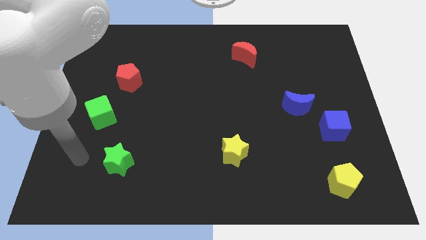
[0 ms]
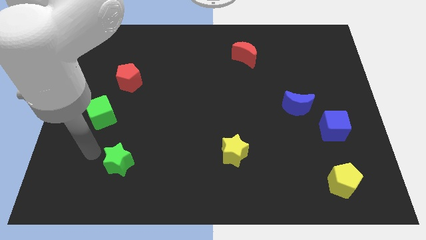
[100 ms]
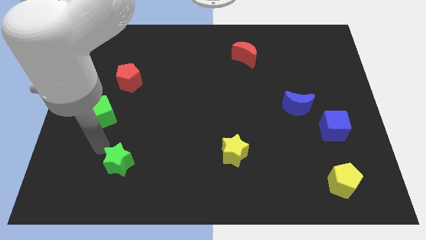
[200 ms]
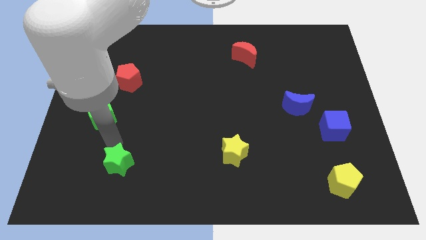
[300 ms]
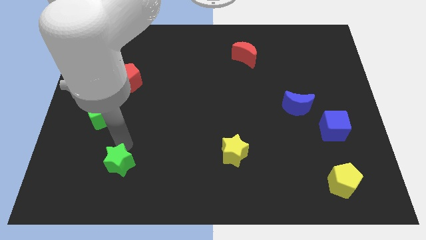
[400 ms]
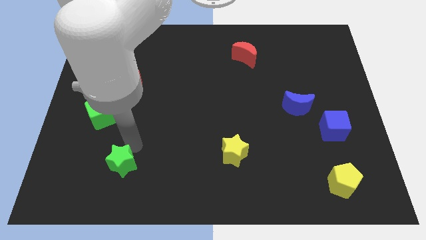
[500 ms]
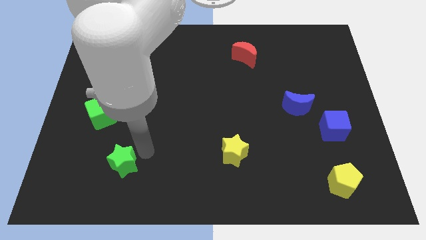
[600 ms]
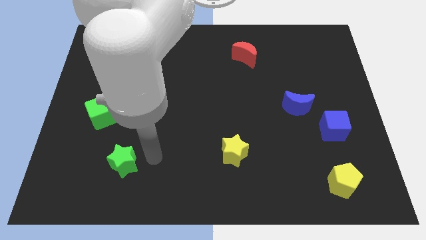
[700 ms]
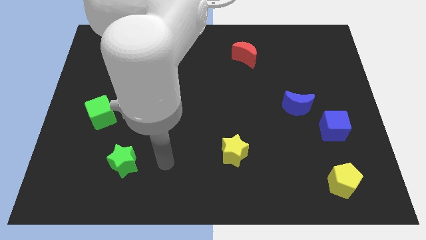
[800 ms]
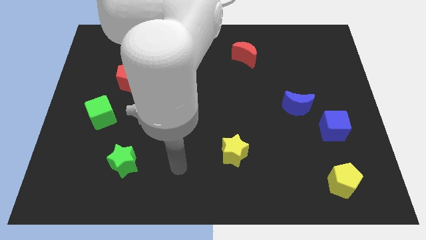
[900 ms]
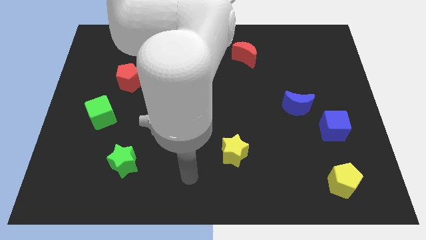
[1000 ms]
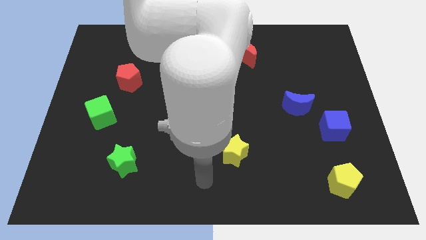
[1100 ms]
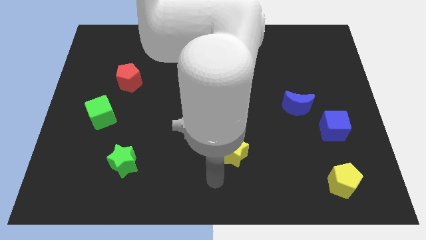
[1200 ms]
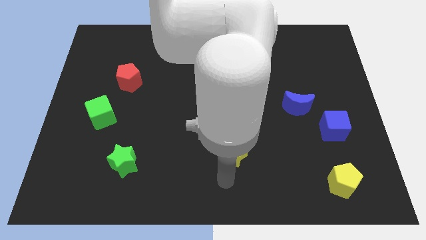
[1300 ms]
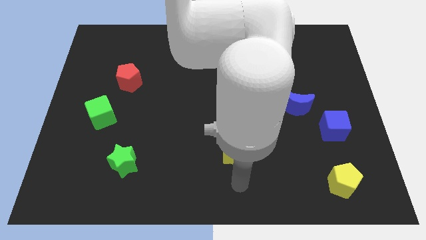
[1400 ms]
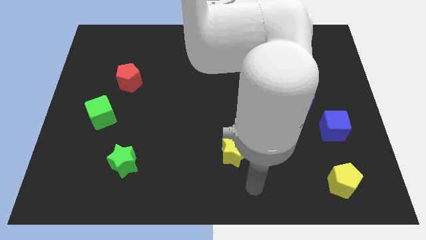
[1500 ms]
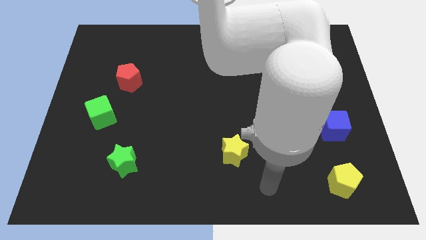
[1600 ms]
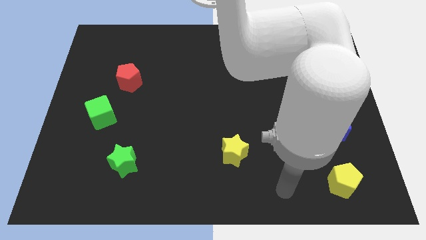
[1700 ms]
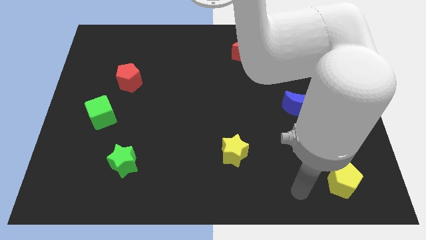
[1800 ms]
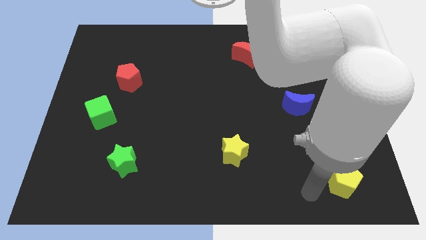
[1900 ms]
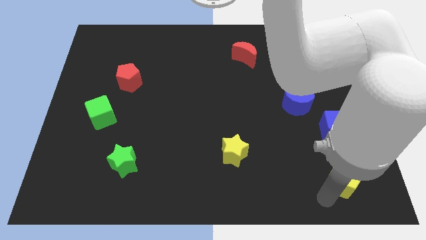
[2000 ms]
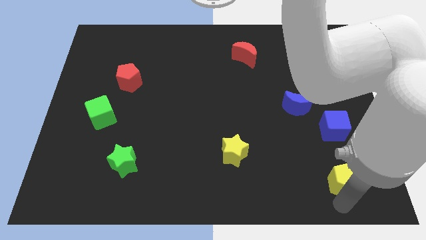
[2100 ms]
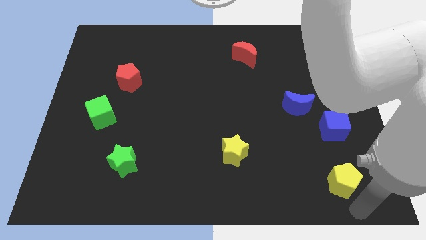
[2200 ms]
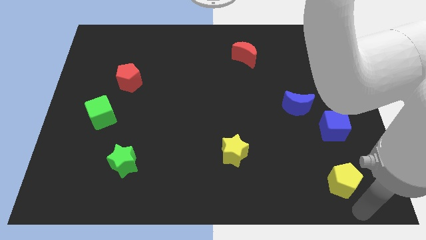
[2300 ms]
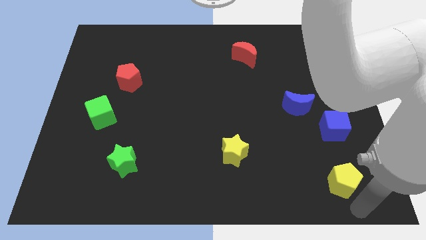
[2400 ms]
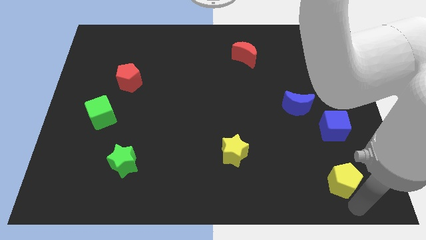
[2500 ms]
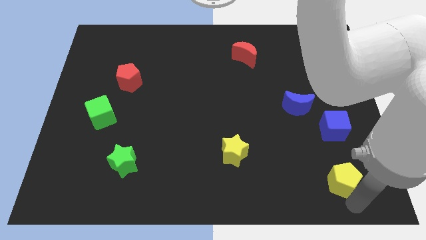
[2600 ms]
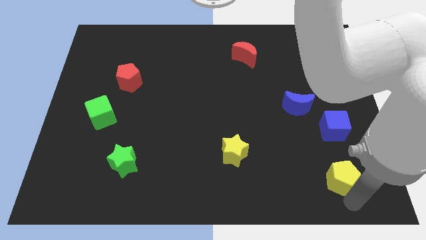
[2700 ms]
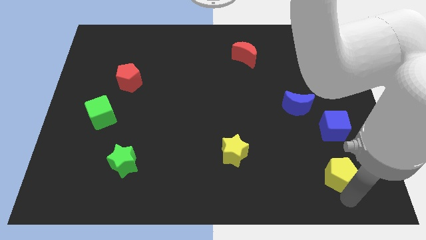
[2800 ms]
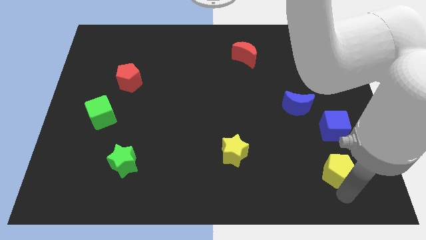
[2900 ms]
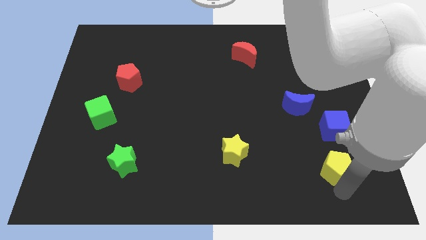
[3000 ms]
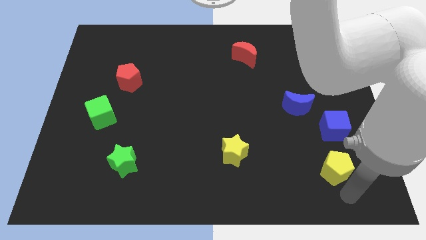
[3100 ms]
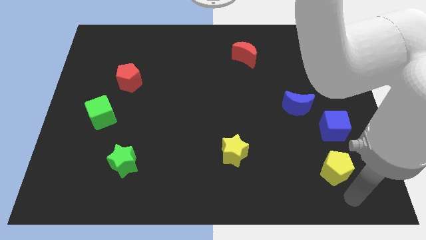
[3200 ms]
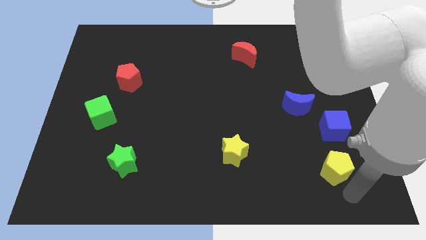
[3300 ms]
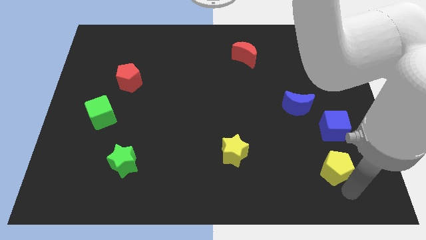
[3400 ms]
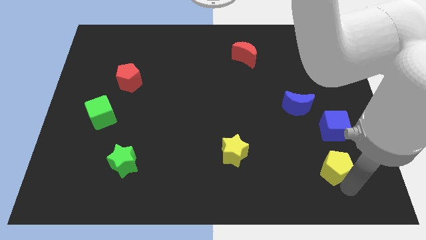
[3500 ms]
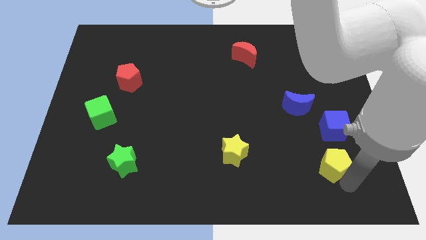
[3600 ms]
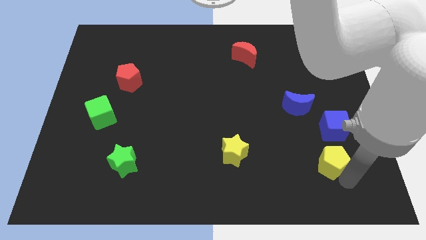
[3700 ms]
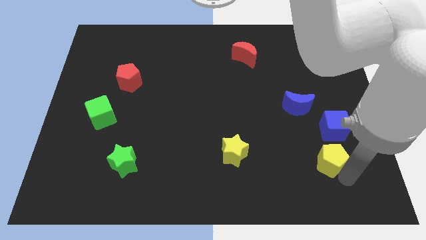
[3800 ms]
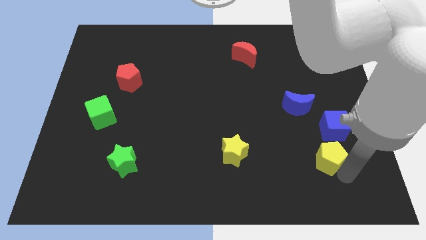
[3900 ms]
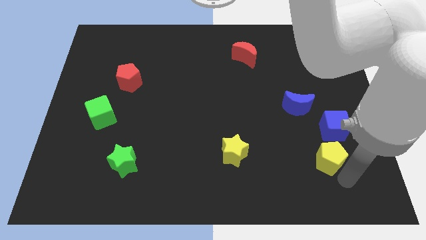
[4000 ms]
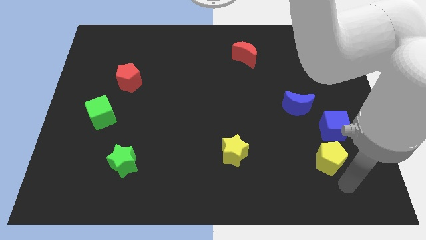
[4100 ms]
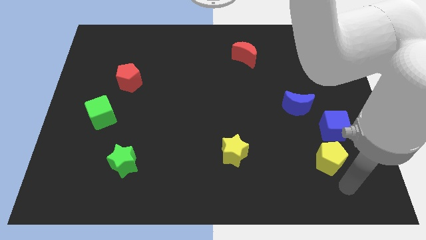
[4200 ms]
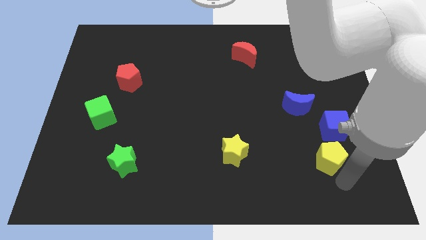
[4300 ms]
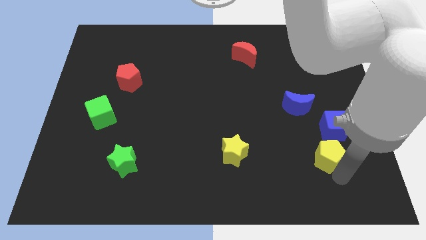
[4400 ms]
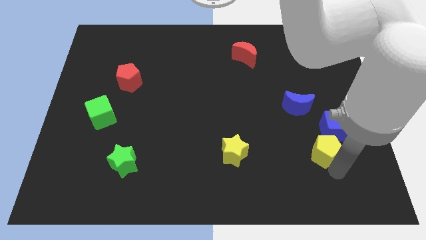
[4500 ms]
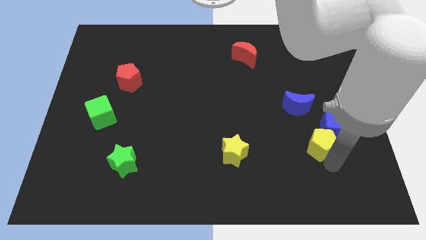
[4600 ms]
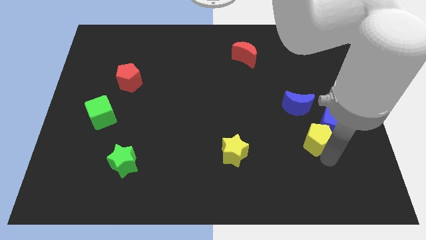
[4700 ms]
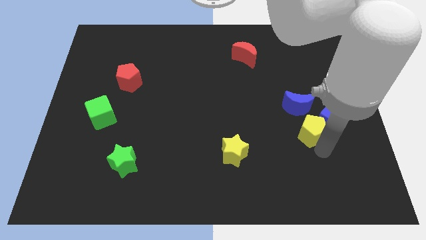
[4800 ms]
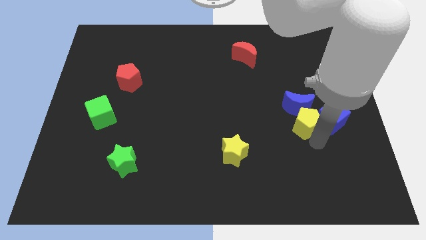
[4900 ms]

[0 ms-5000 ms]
push the yellow pentagon next to the blue moon

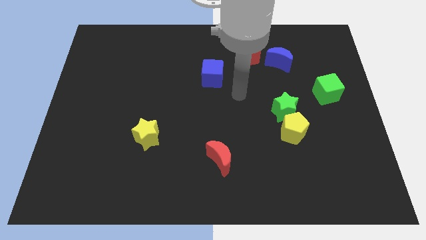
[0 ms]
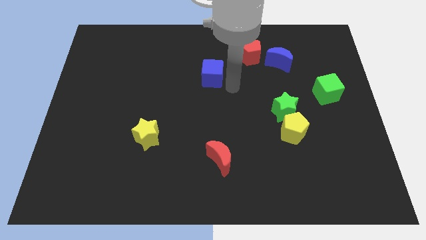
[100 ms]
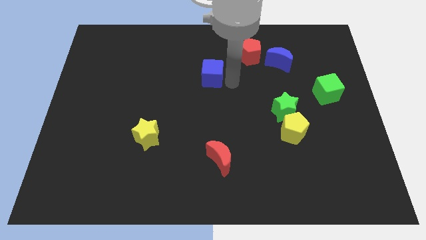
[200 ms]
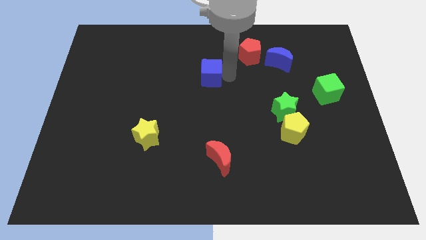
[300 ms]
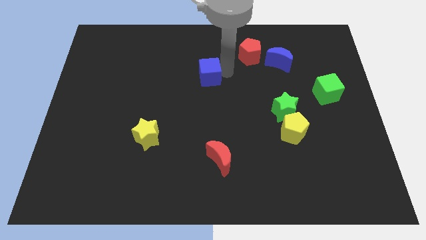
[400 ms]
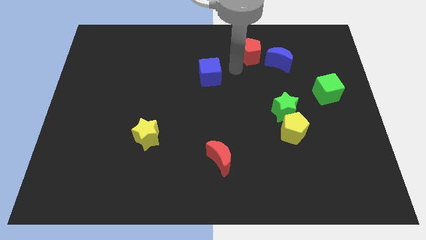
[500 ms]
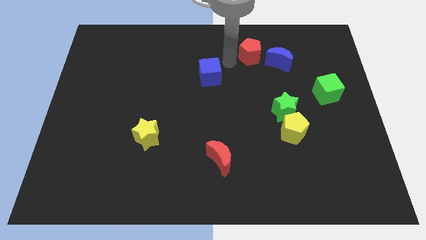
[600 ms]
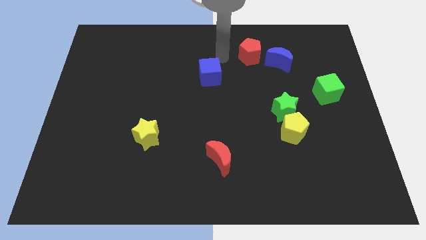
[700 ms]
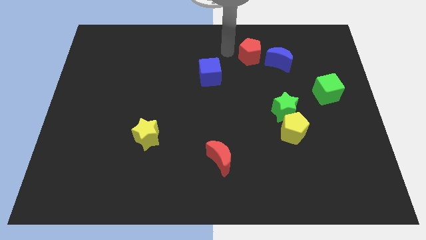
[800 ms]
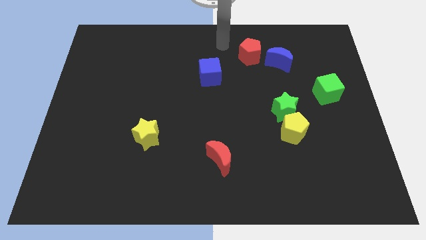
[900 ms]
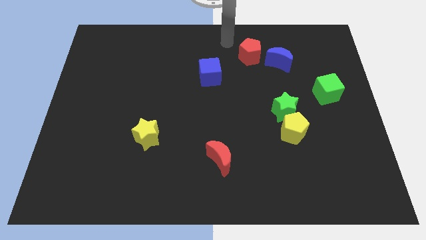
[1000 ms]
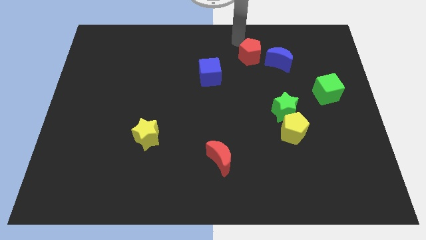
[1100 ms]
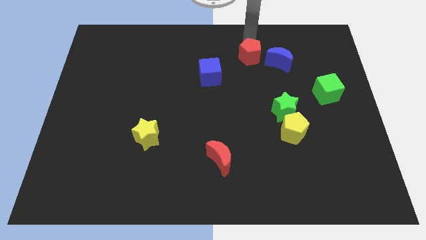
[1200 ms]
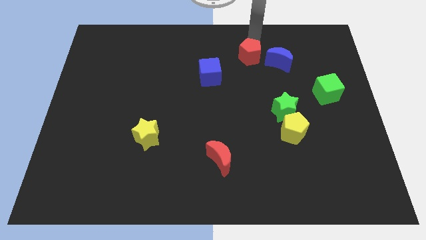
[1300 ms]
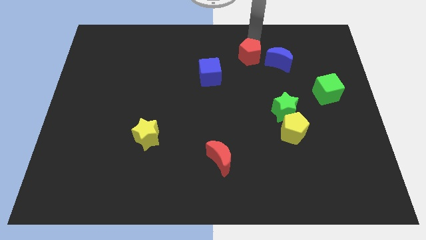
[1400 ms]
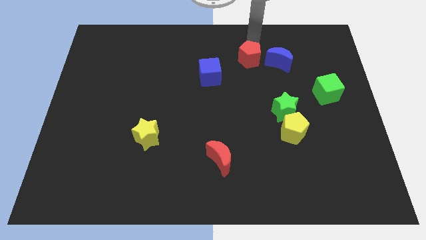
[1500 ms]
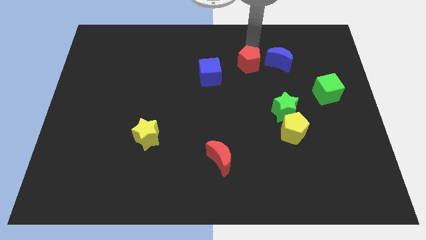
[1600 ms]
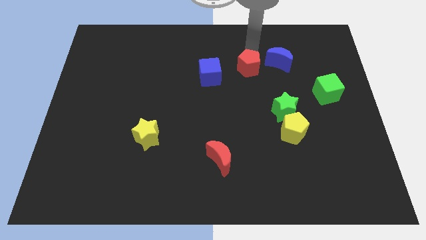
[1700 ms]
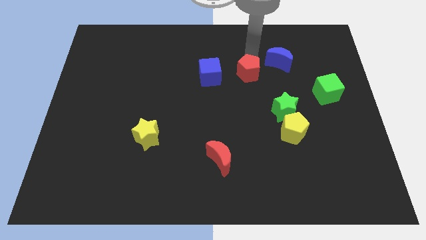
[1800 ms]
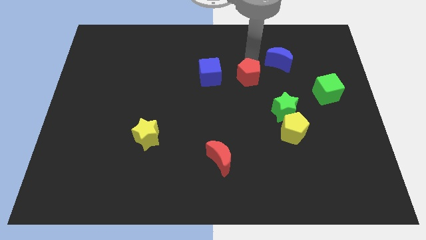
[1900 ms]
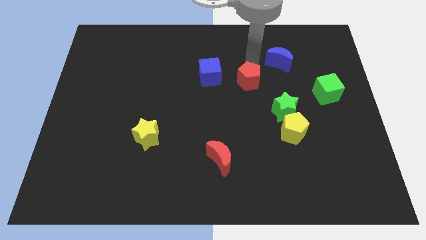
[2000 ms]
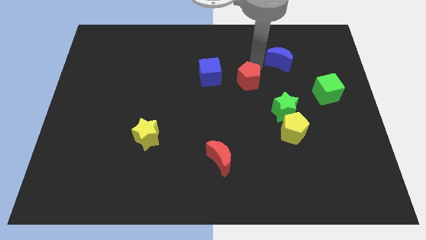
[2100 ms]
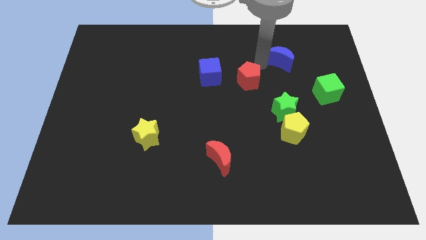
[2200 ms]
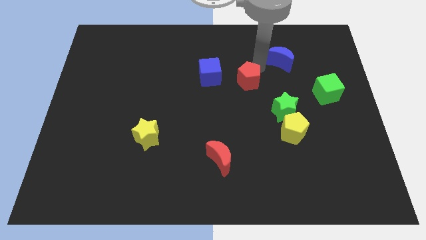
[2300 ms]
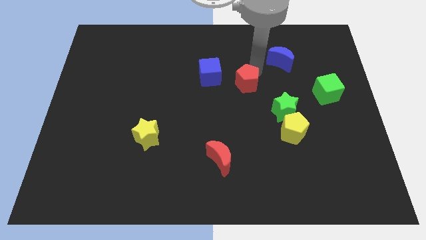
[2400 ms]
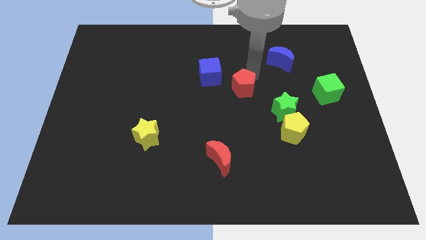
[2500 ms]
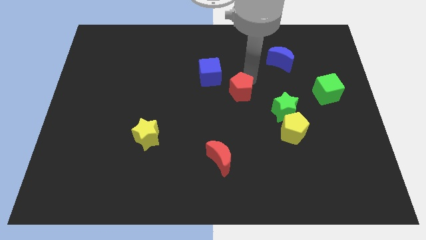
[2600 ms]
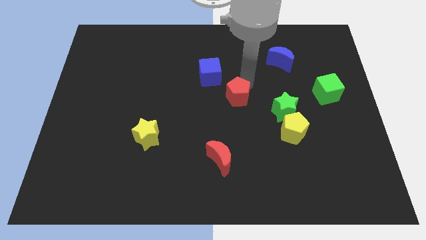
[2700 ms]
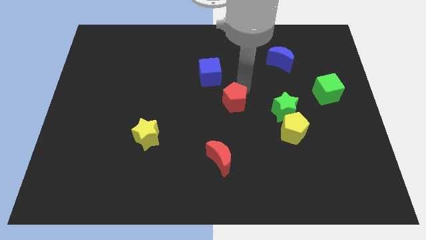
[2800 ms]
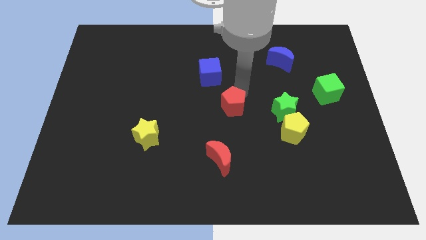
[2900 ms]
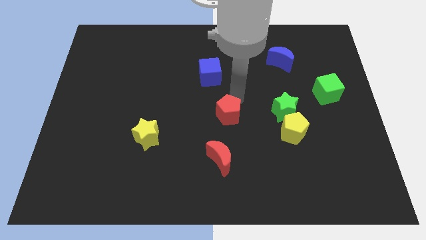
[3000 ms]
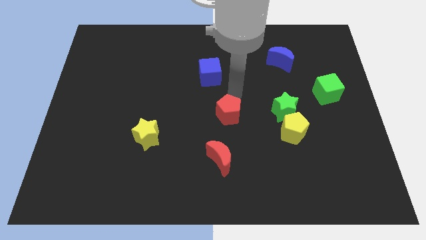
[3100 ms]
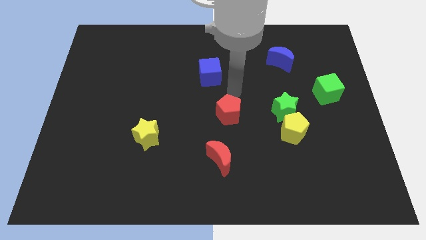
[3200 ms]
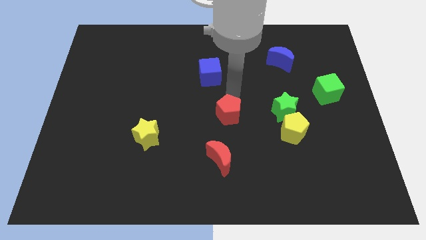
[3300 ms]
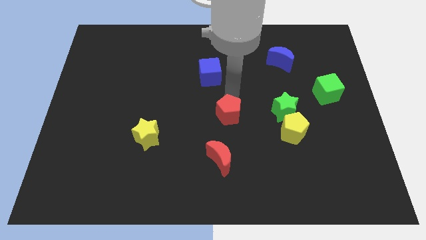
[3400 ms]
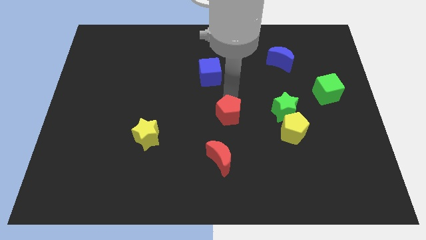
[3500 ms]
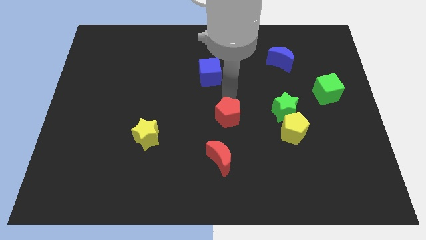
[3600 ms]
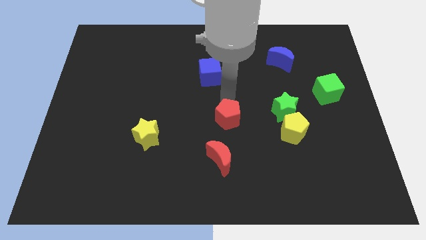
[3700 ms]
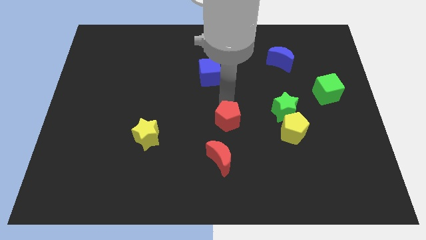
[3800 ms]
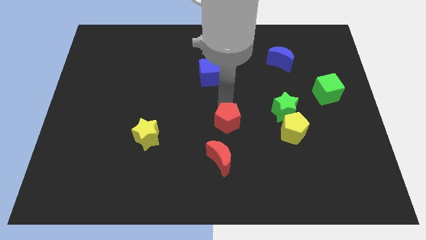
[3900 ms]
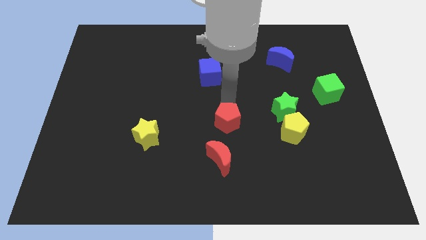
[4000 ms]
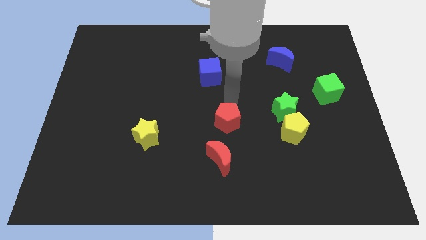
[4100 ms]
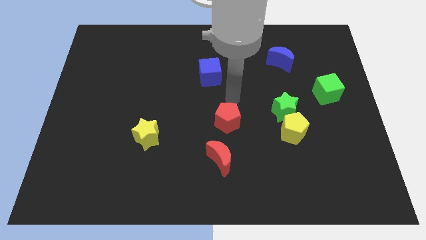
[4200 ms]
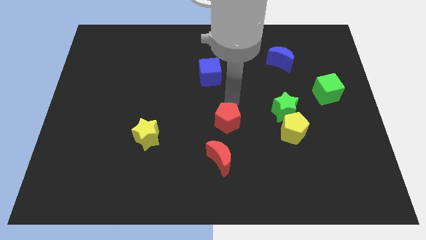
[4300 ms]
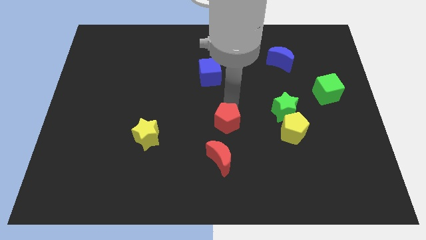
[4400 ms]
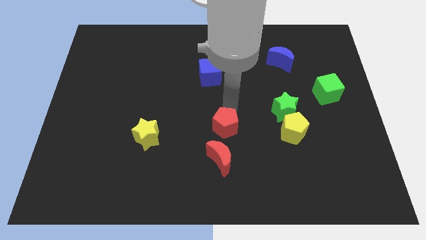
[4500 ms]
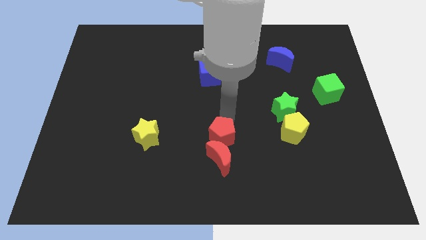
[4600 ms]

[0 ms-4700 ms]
put the red pentagon next to the red moon
